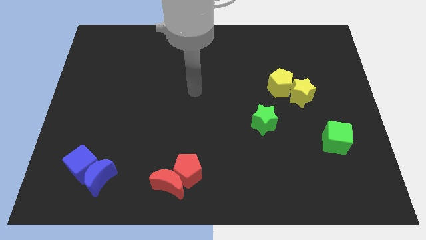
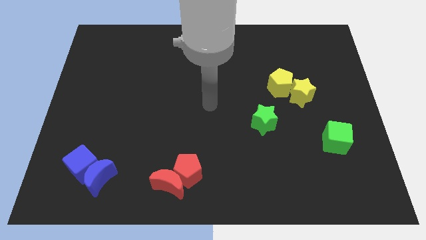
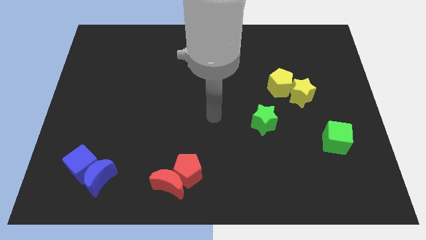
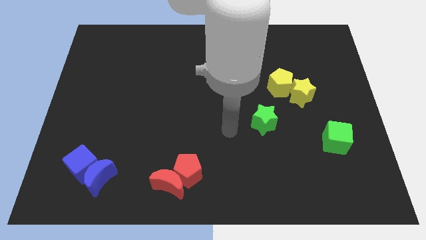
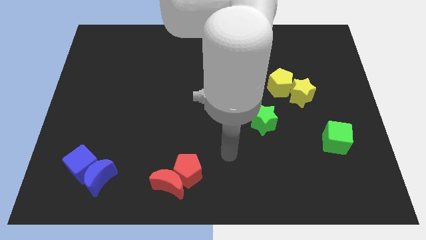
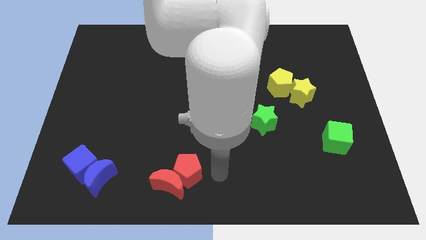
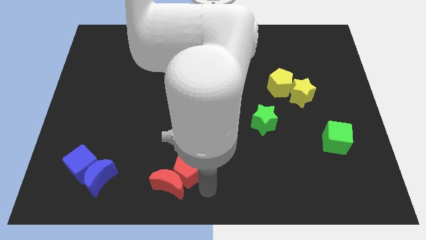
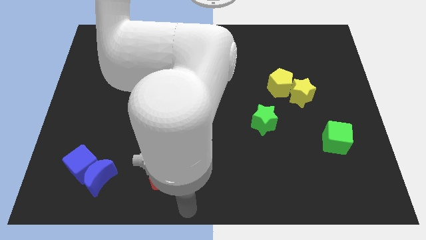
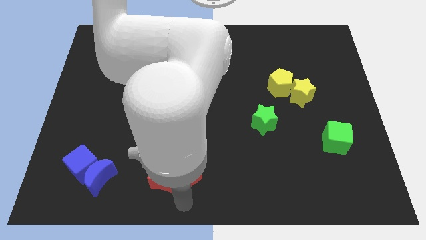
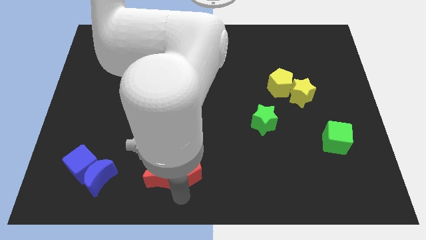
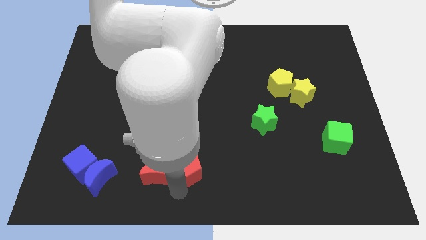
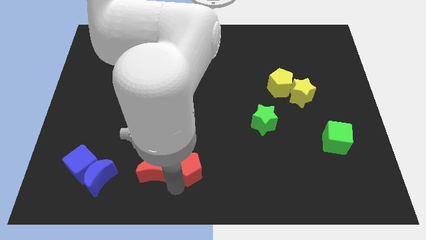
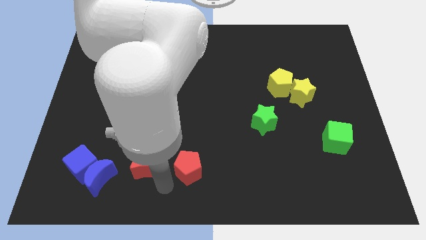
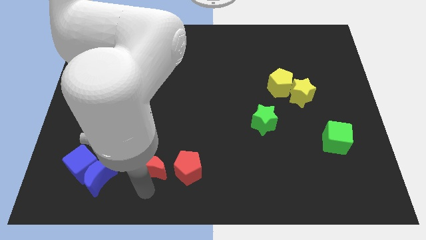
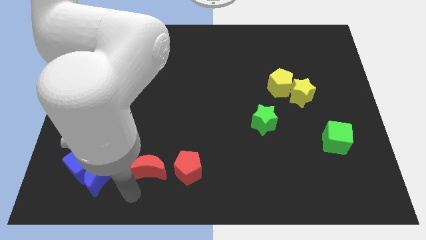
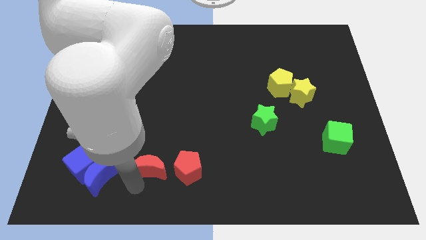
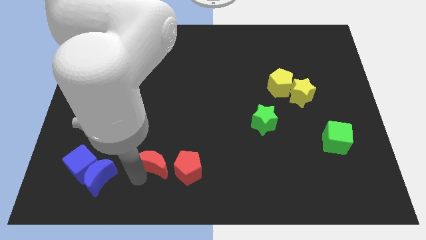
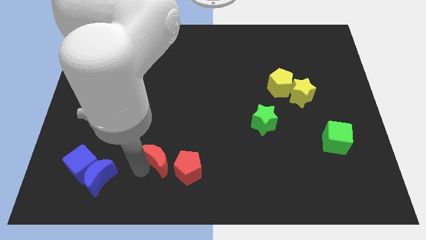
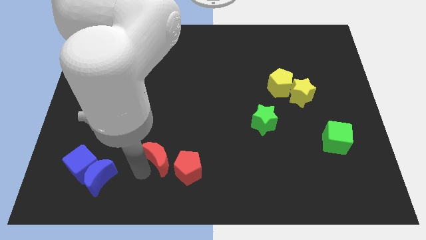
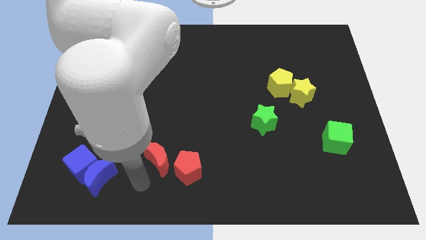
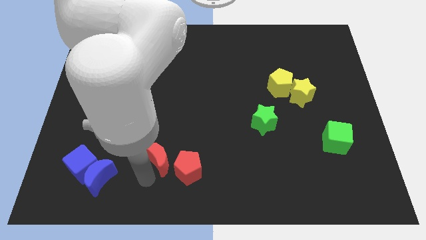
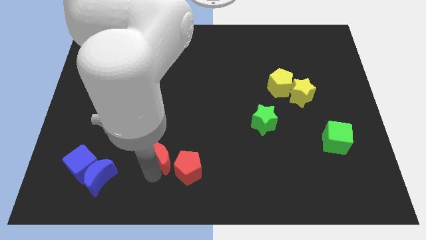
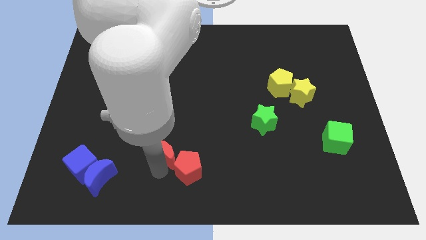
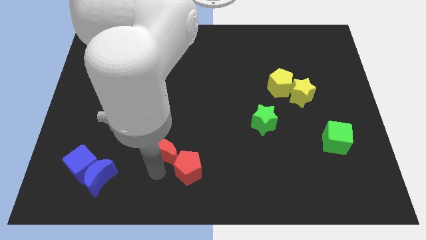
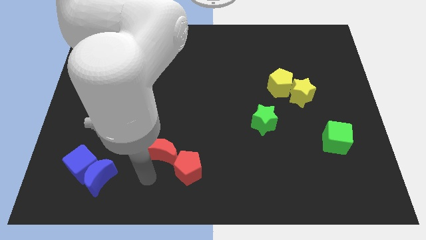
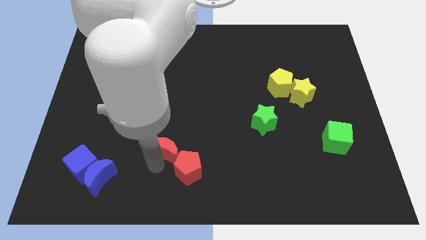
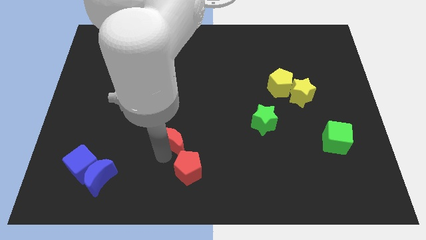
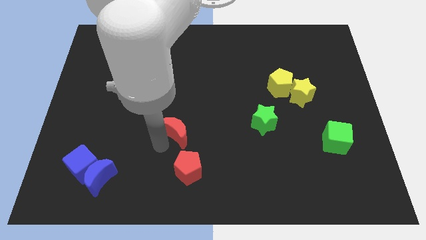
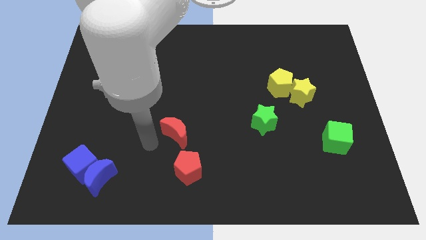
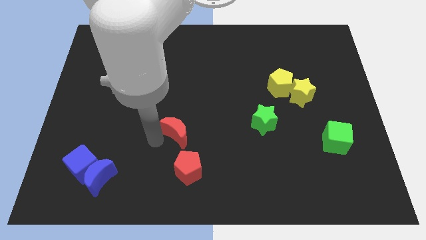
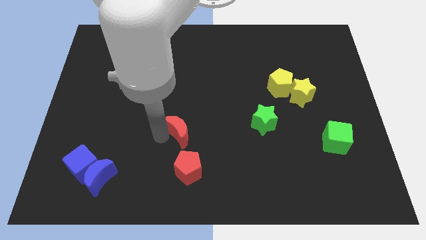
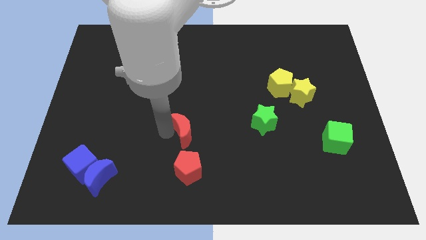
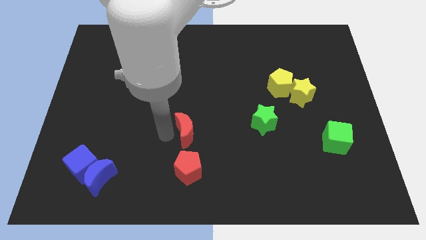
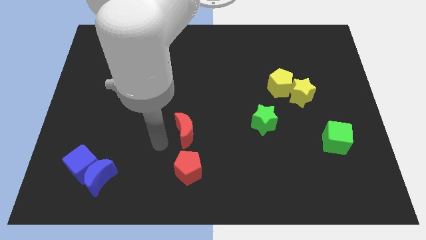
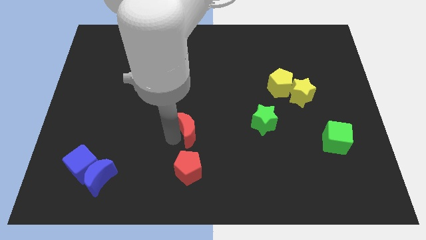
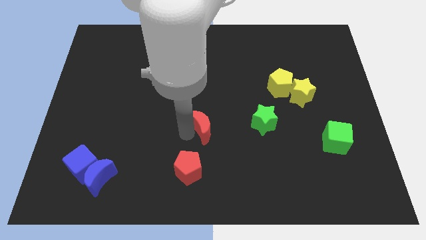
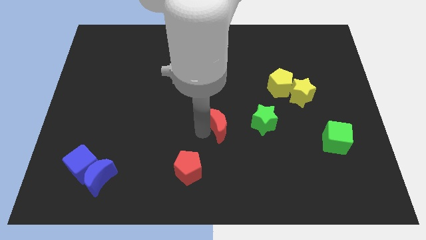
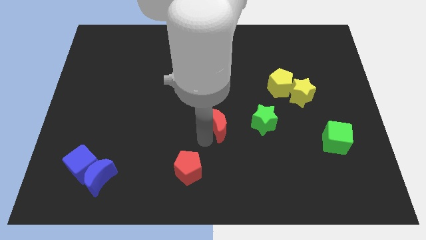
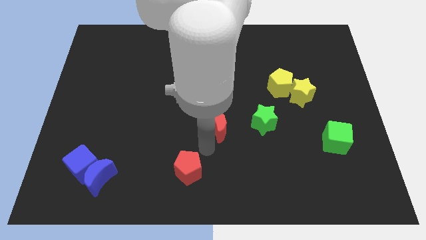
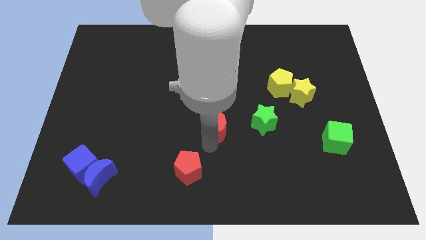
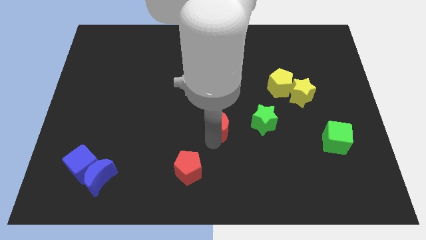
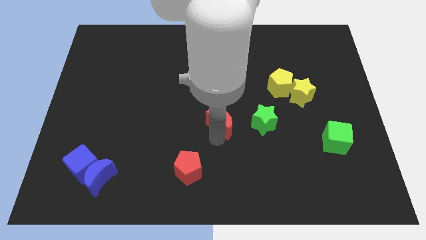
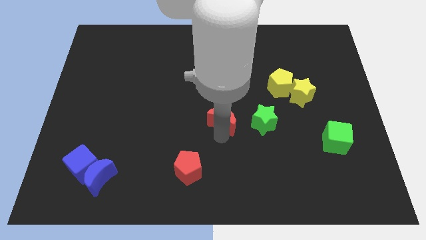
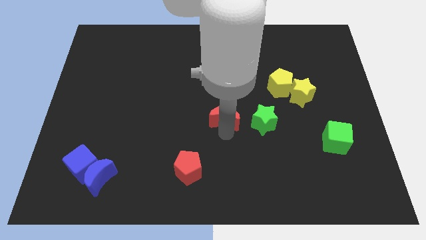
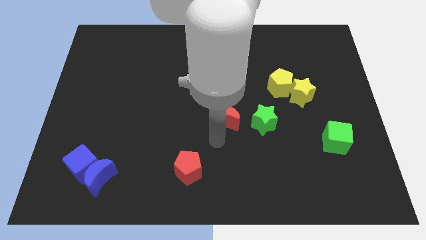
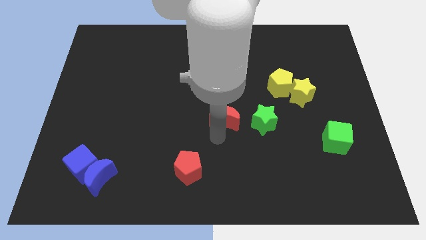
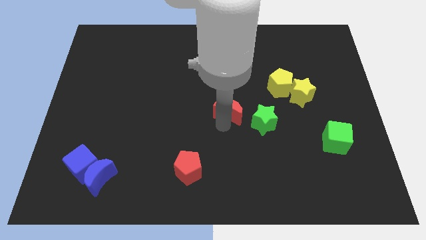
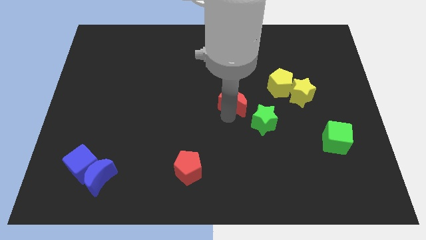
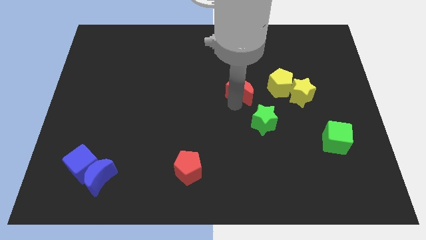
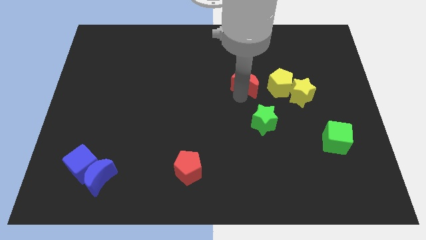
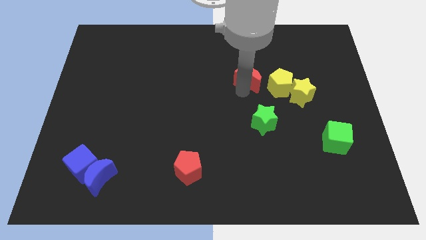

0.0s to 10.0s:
push the red moon to the top left side of the yellow pentagon

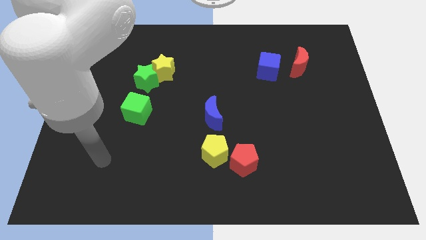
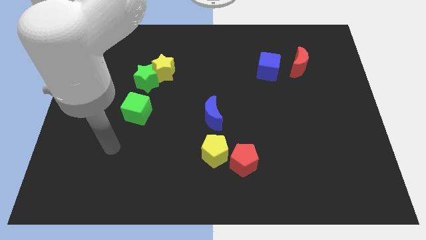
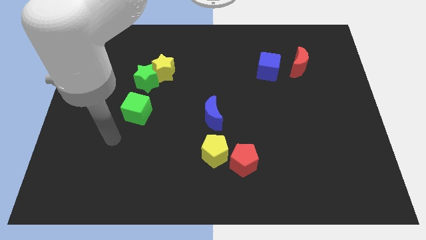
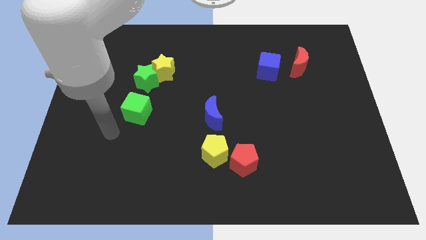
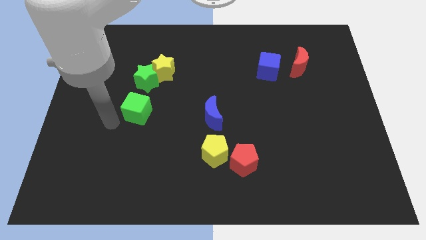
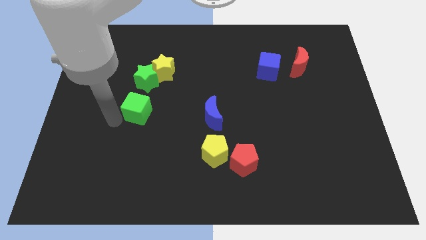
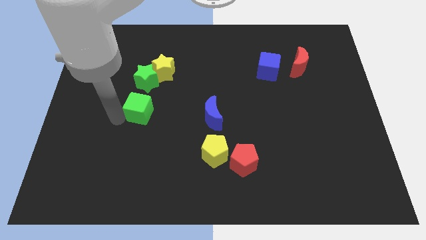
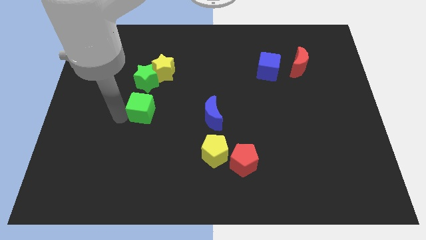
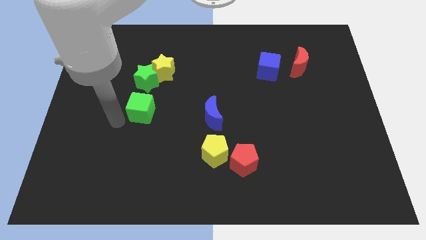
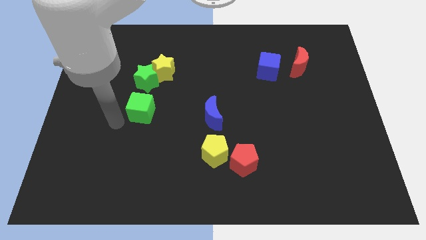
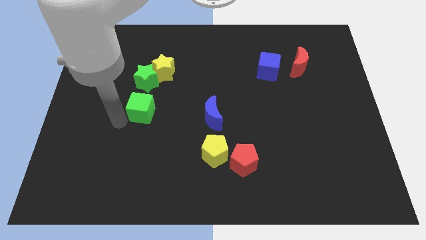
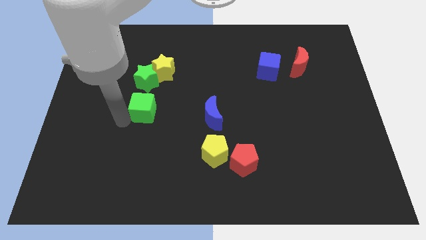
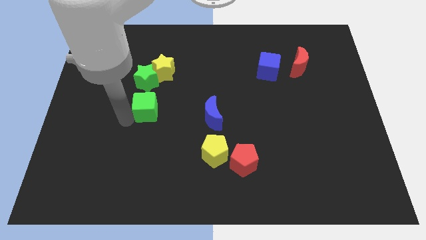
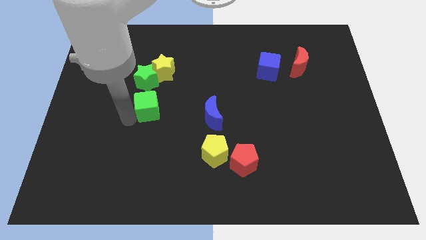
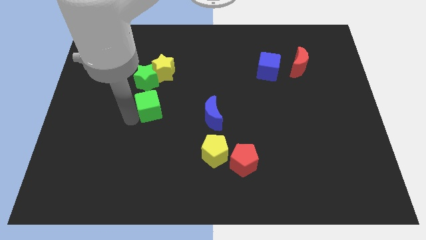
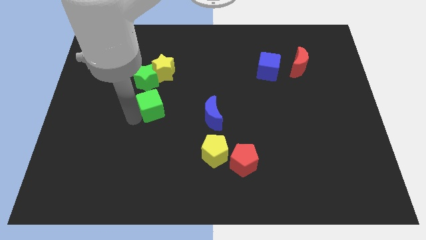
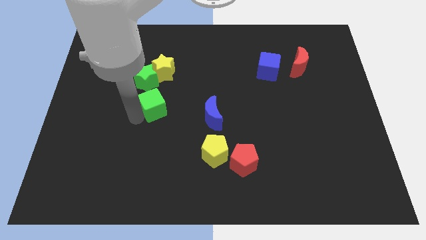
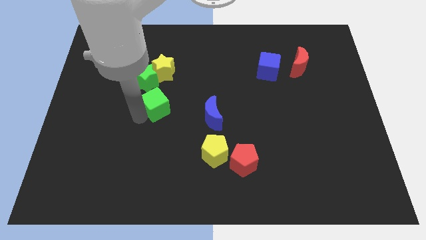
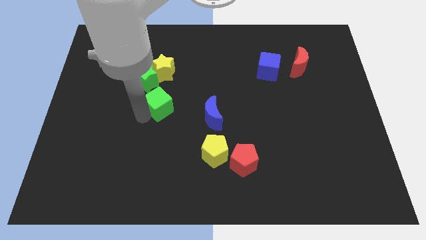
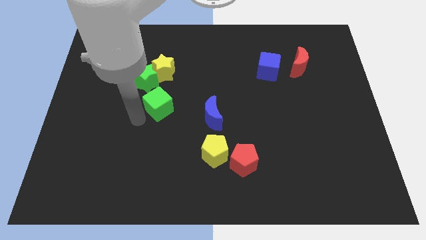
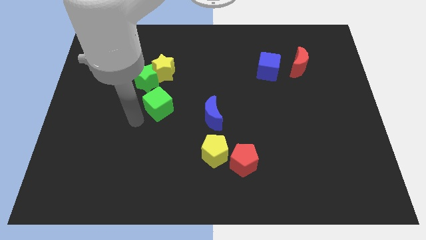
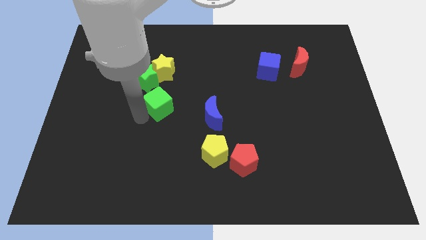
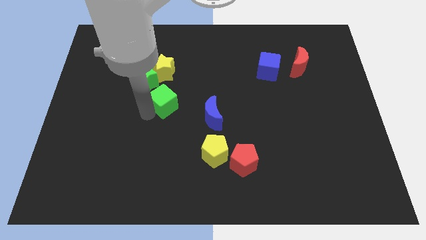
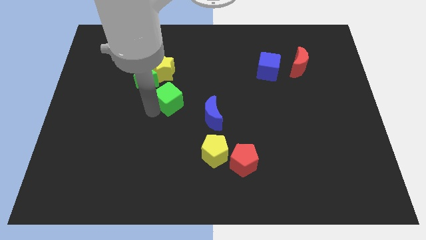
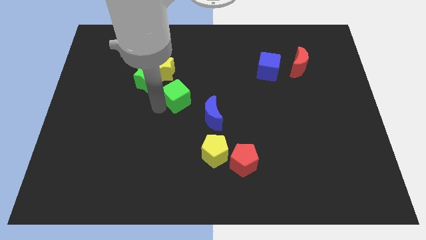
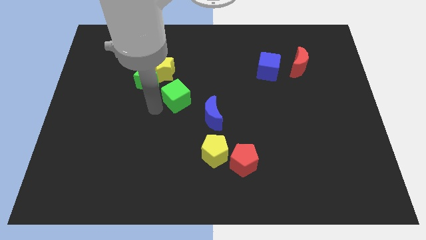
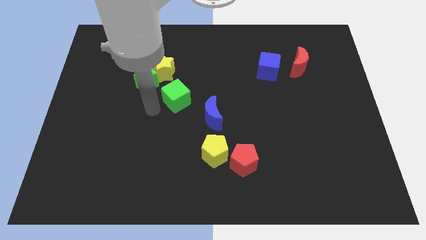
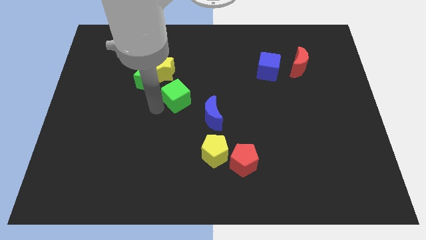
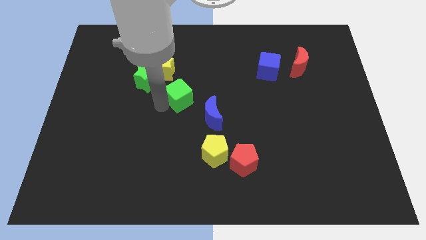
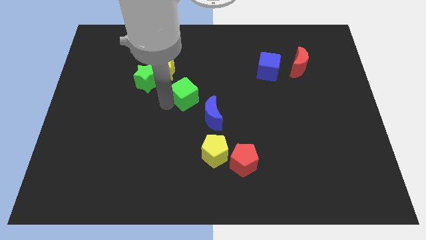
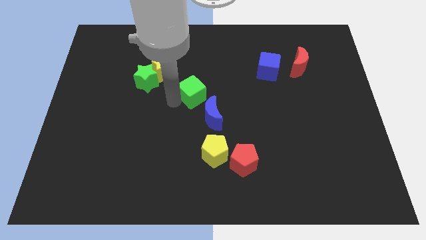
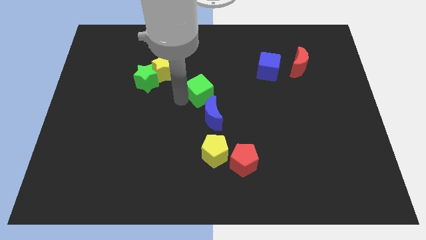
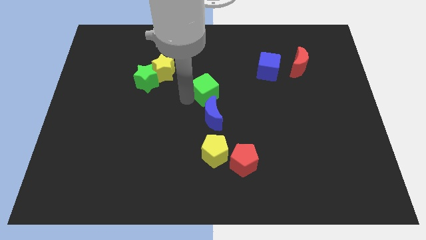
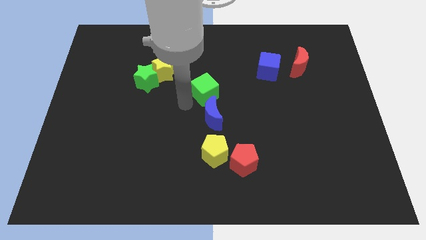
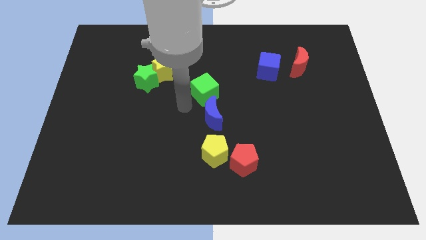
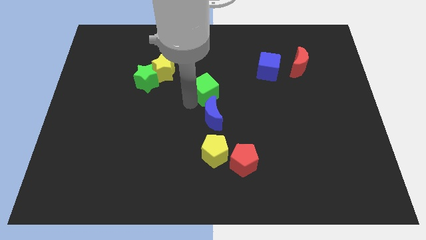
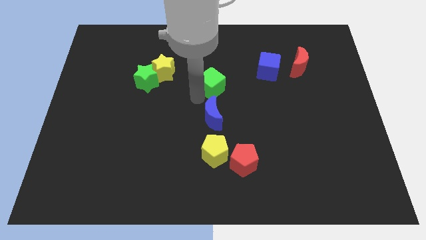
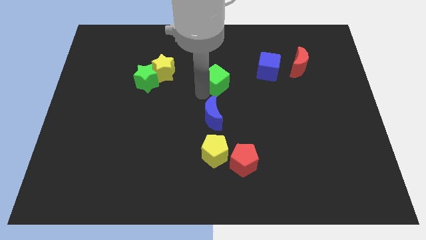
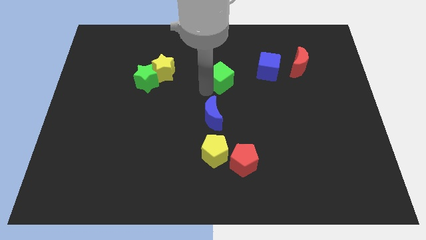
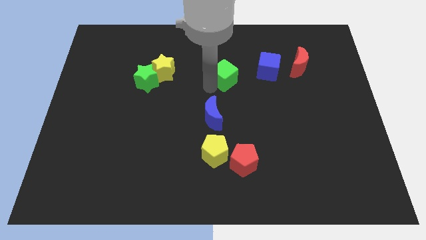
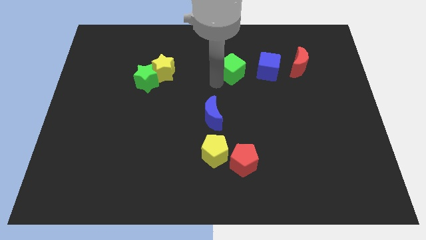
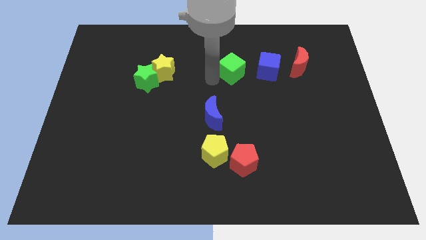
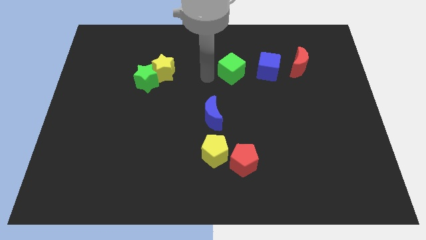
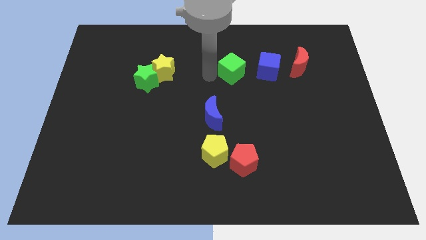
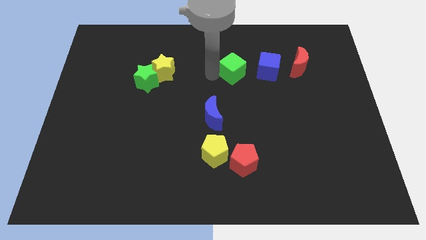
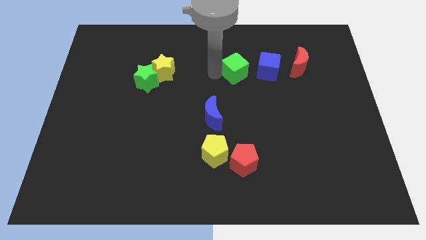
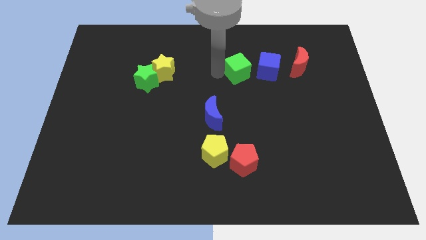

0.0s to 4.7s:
put the green cube just left of the red moon
